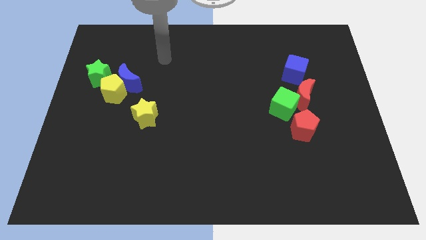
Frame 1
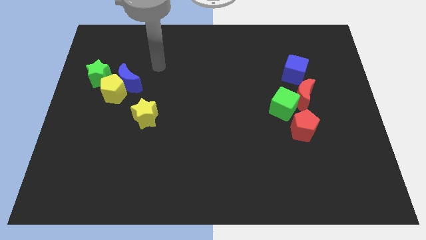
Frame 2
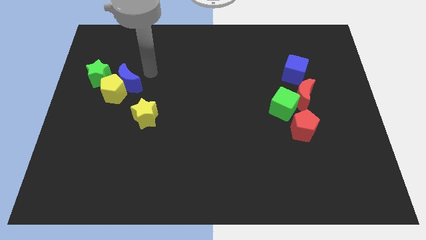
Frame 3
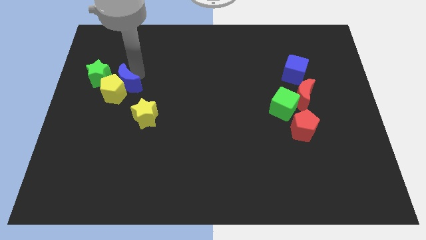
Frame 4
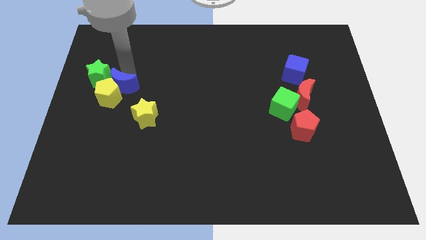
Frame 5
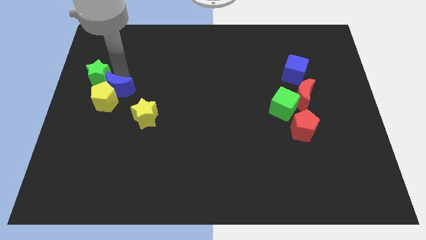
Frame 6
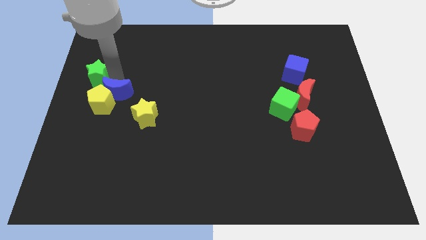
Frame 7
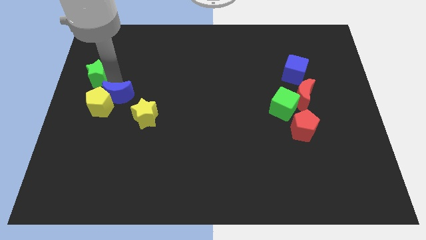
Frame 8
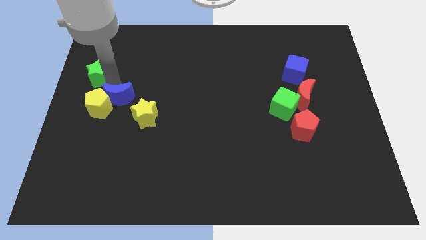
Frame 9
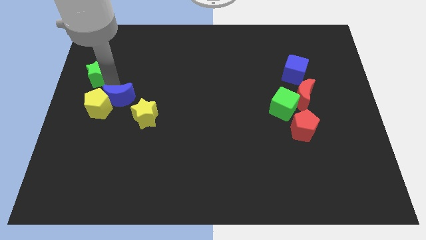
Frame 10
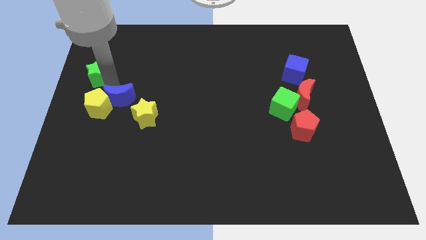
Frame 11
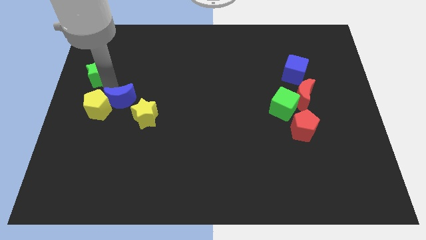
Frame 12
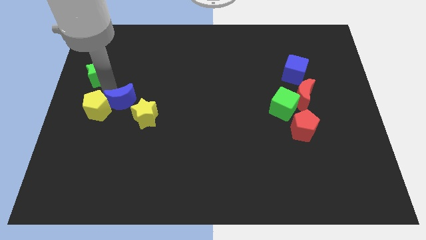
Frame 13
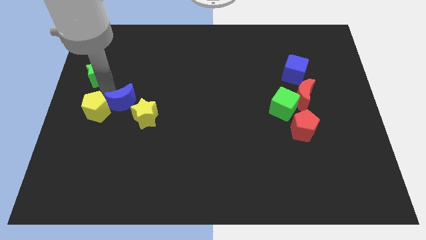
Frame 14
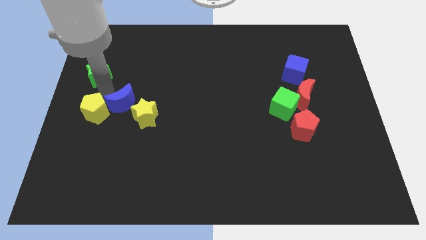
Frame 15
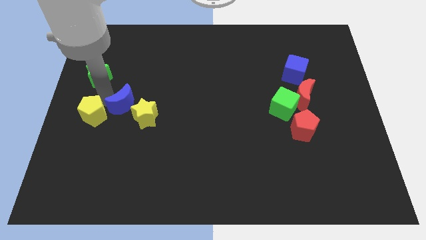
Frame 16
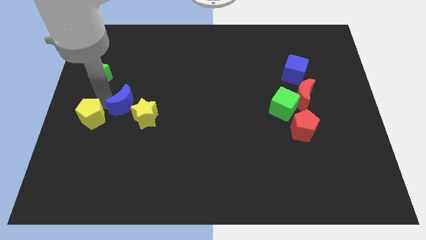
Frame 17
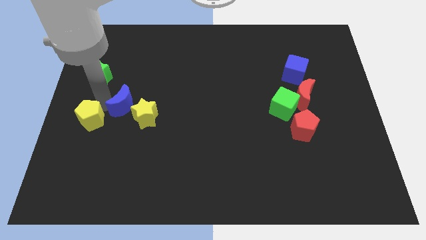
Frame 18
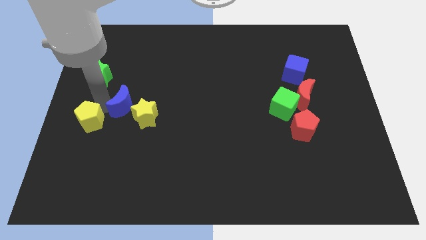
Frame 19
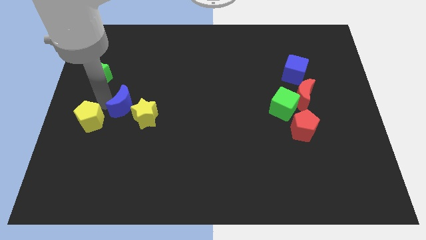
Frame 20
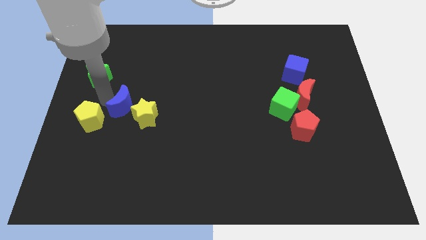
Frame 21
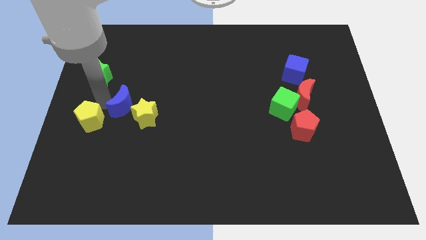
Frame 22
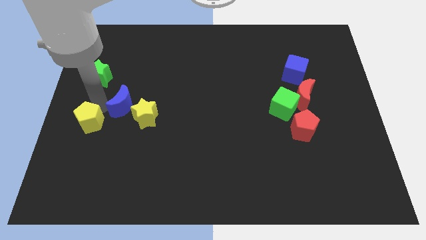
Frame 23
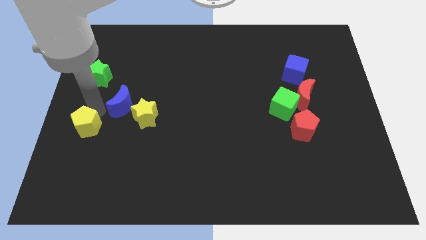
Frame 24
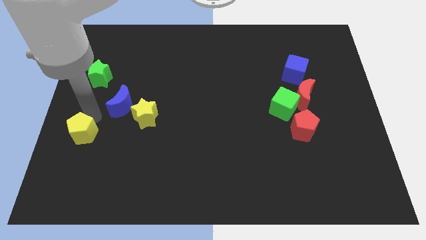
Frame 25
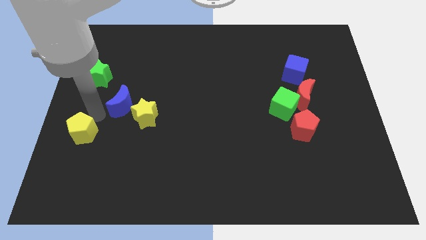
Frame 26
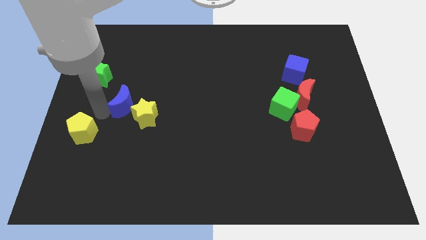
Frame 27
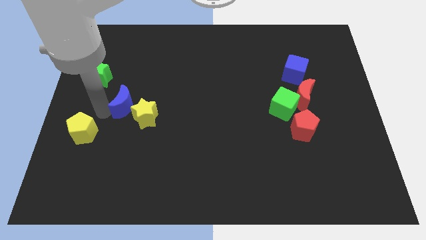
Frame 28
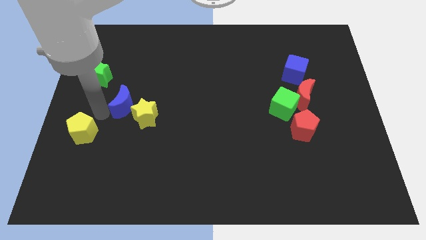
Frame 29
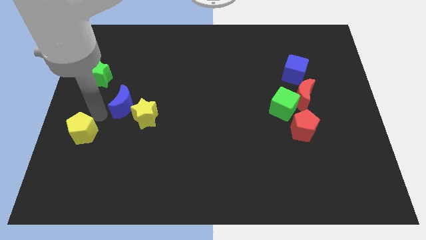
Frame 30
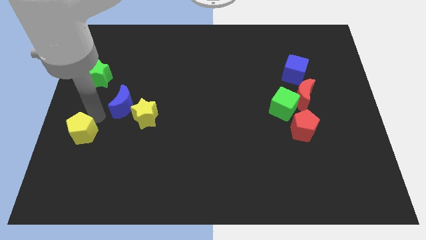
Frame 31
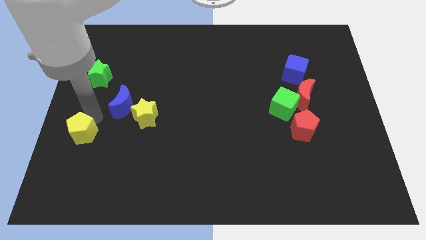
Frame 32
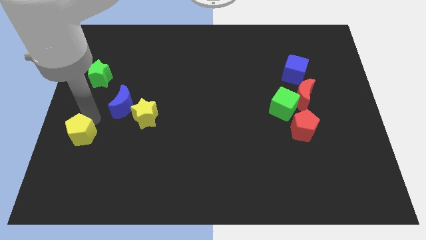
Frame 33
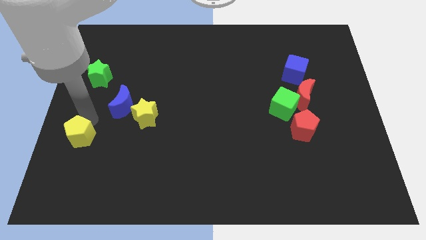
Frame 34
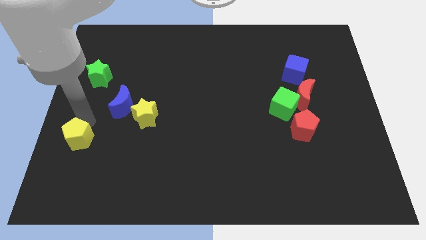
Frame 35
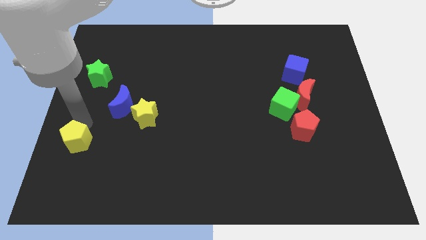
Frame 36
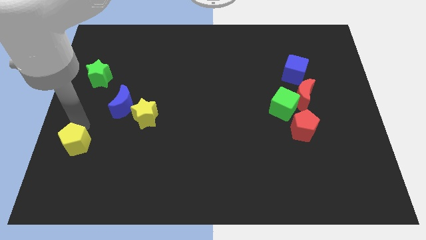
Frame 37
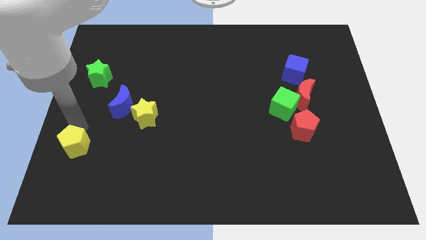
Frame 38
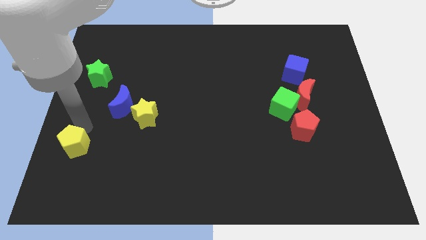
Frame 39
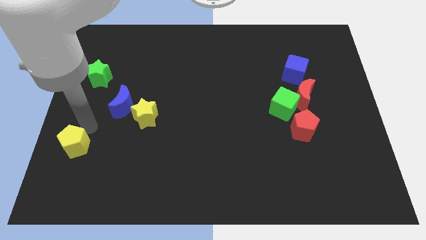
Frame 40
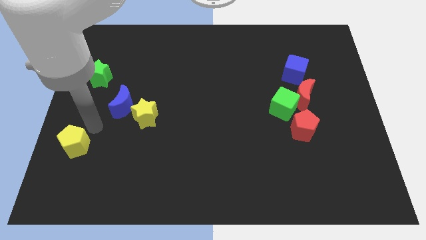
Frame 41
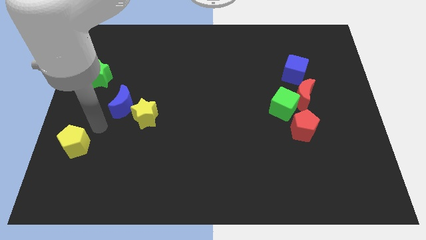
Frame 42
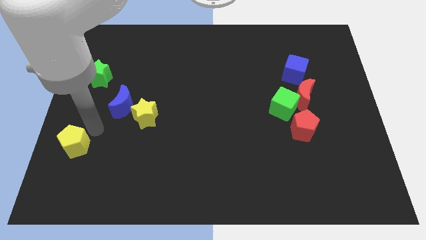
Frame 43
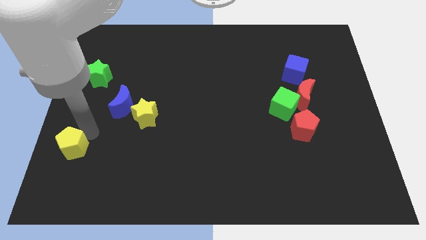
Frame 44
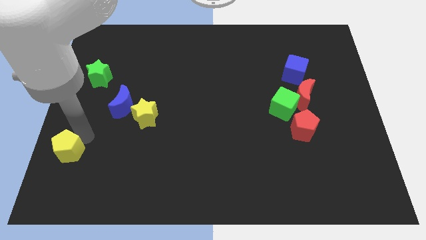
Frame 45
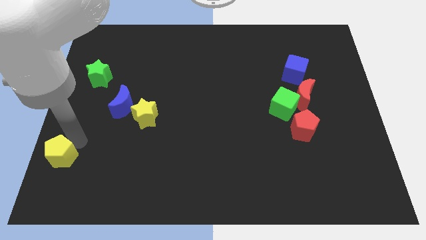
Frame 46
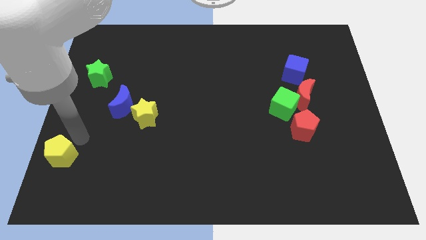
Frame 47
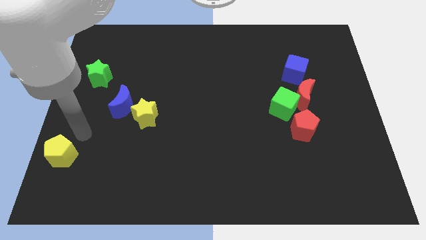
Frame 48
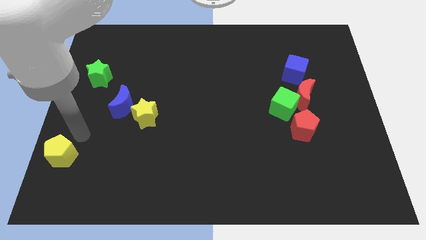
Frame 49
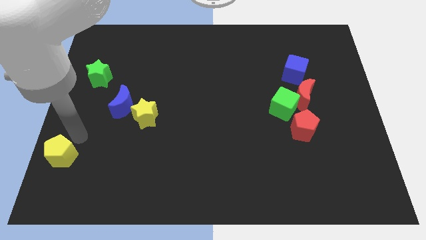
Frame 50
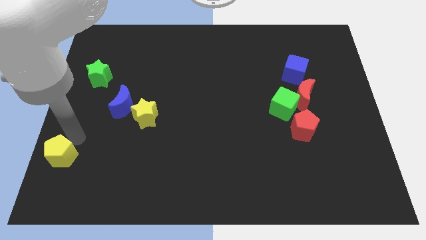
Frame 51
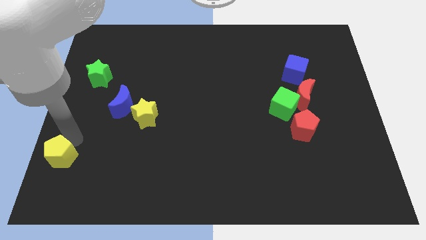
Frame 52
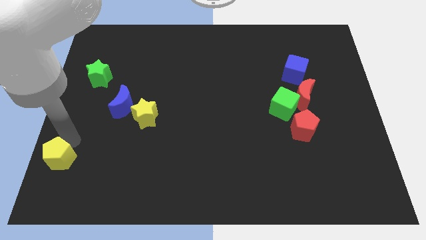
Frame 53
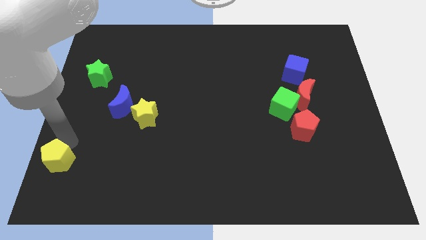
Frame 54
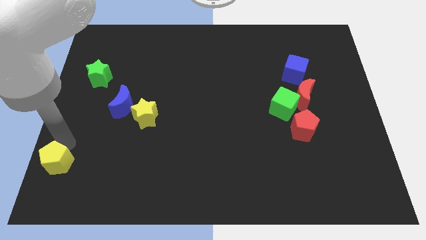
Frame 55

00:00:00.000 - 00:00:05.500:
put the yellow pentagon to the bottom left of the board
